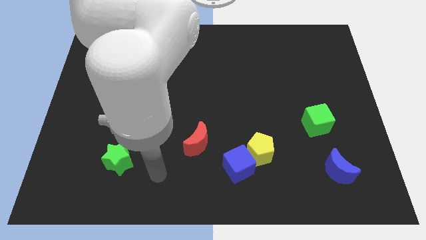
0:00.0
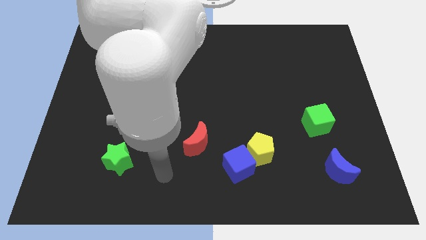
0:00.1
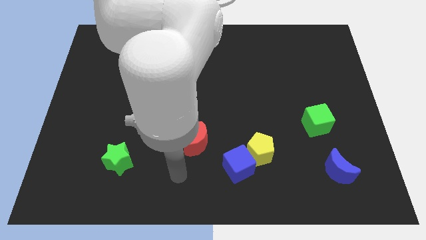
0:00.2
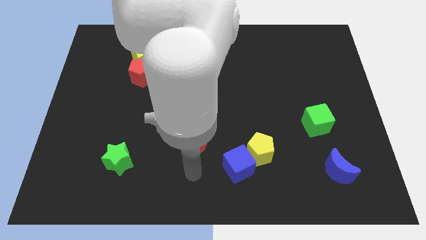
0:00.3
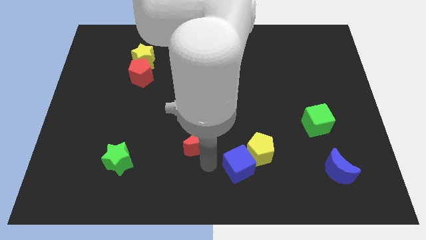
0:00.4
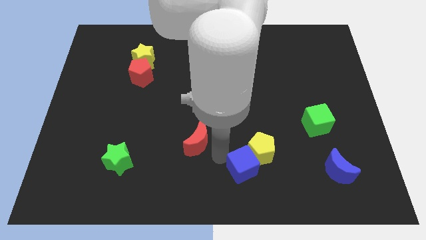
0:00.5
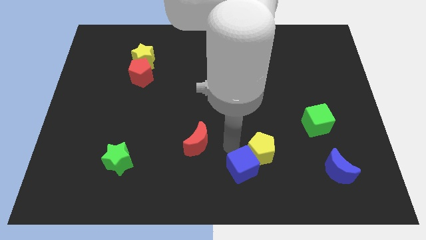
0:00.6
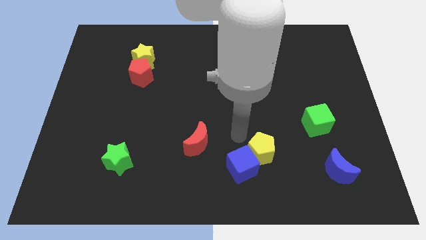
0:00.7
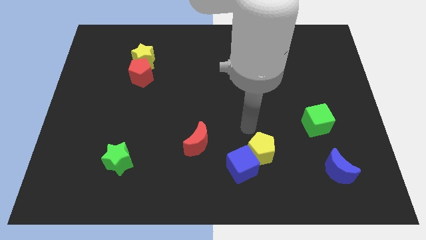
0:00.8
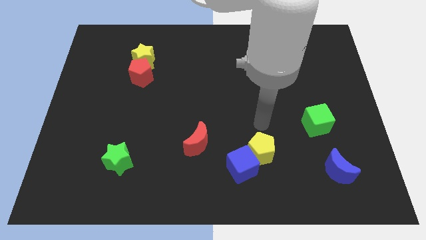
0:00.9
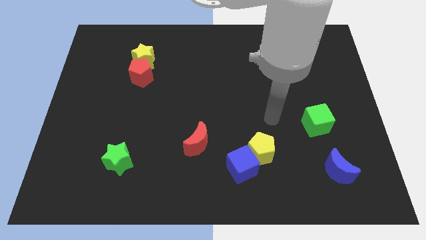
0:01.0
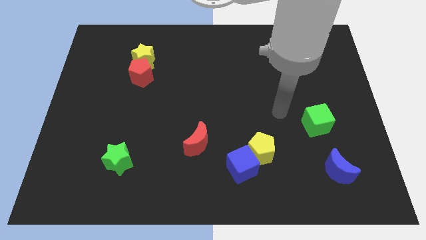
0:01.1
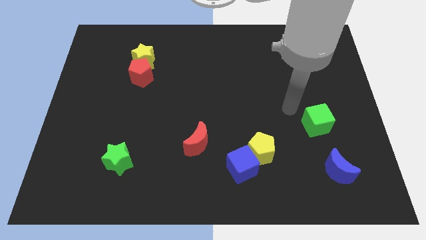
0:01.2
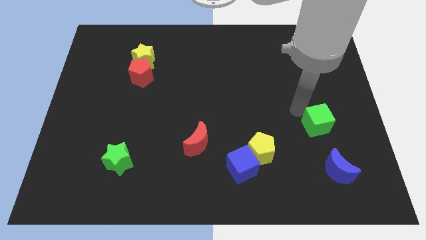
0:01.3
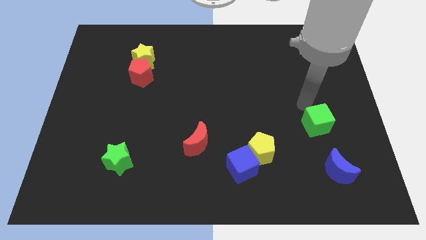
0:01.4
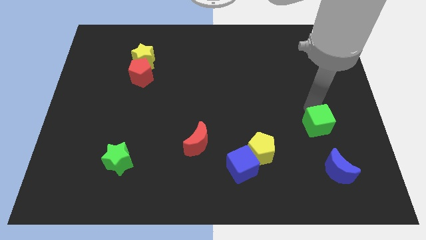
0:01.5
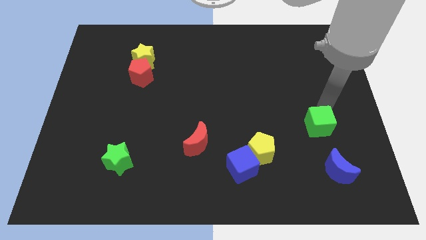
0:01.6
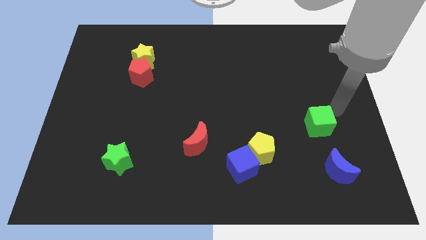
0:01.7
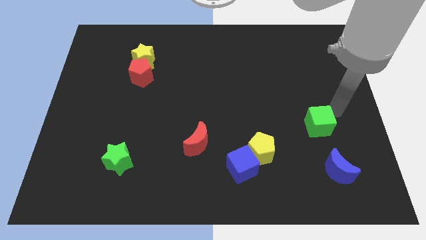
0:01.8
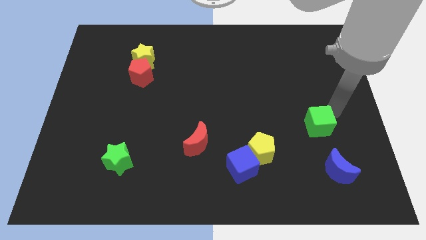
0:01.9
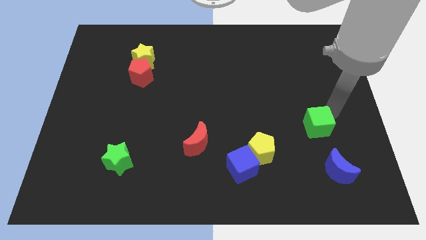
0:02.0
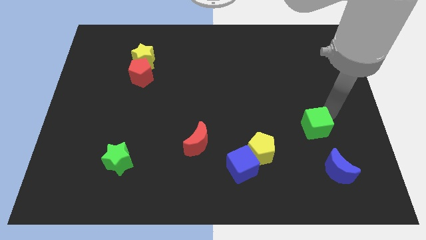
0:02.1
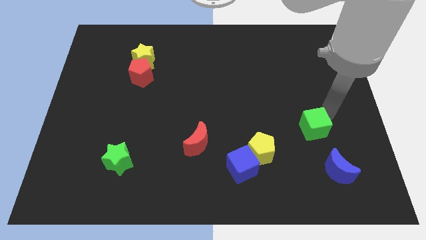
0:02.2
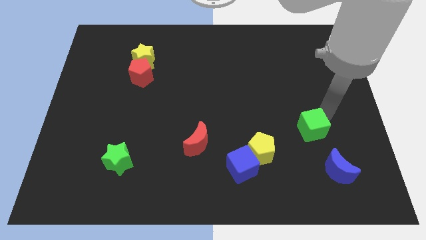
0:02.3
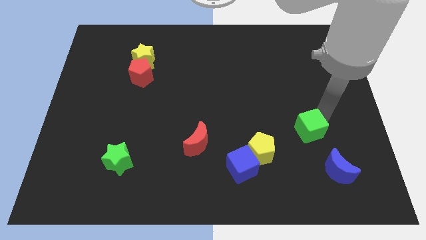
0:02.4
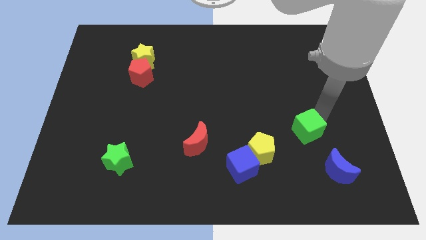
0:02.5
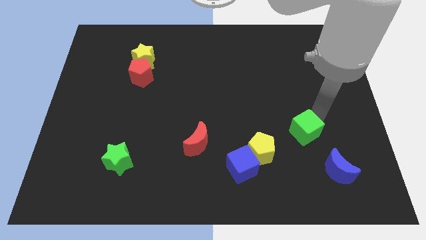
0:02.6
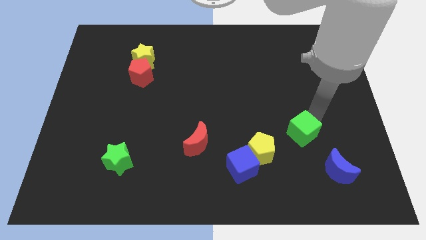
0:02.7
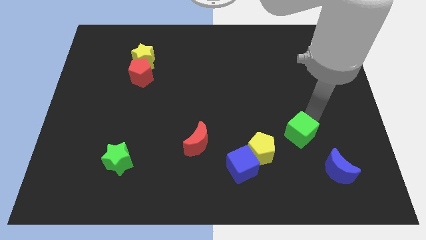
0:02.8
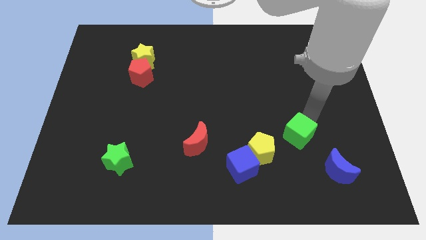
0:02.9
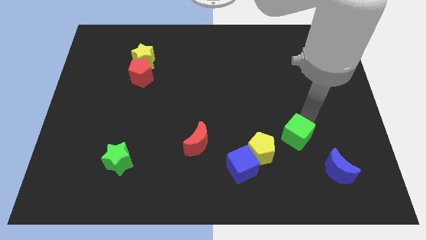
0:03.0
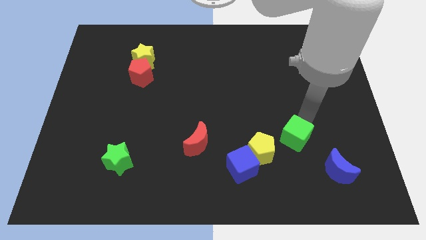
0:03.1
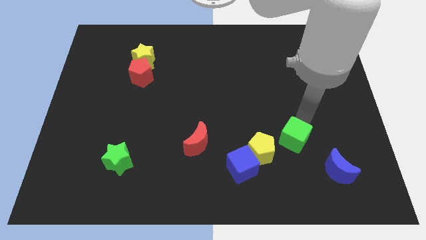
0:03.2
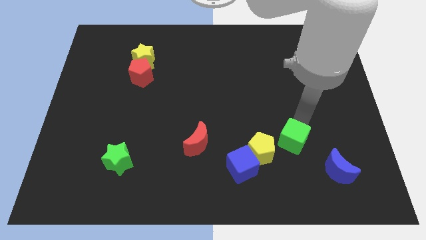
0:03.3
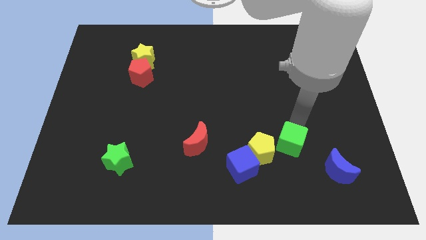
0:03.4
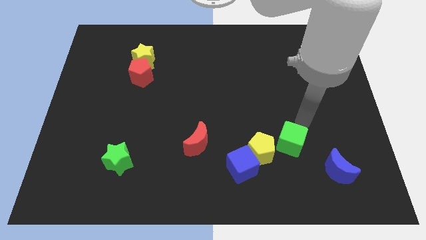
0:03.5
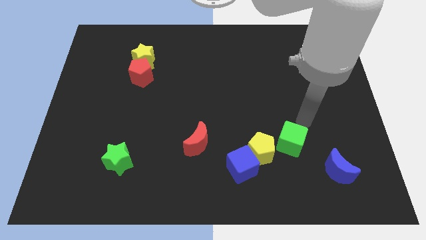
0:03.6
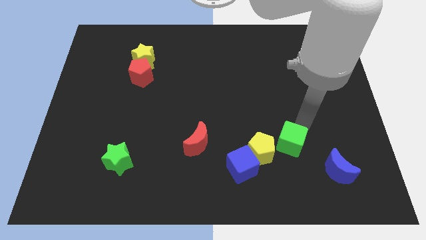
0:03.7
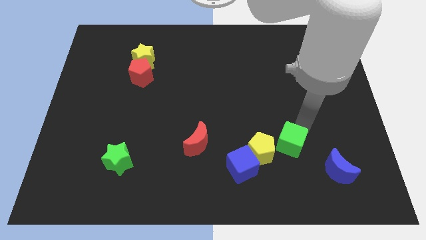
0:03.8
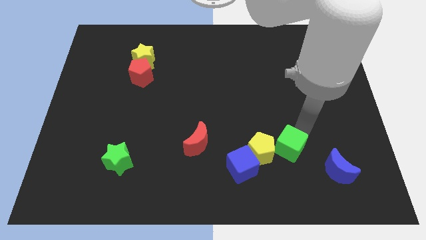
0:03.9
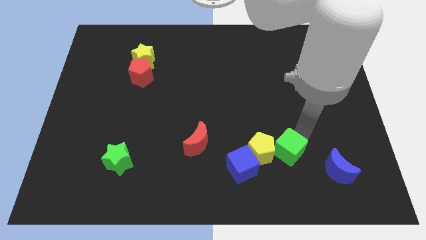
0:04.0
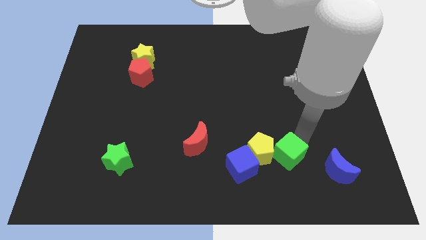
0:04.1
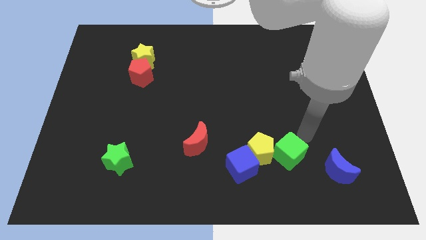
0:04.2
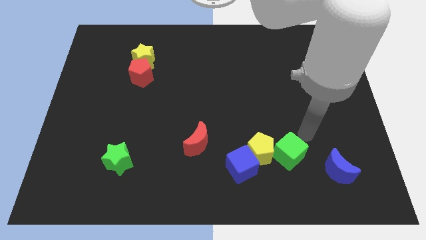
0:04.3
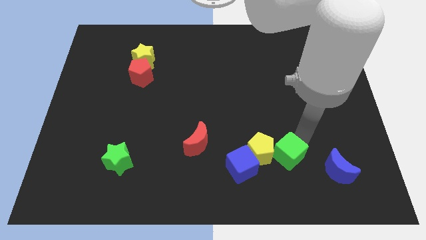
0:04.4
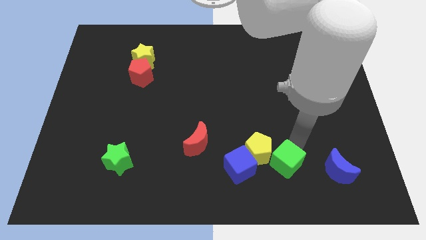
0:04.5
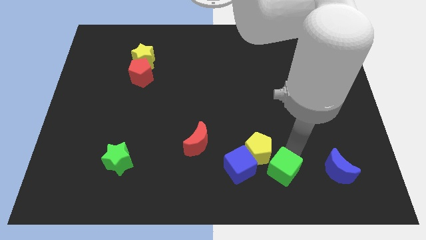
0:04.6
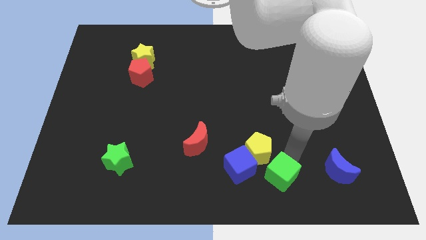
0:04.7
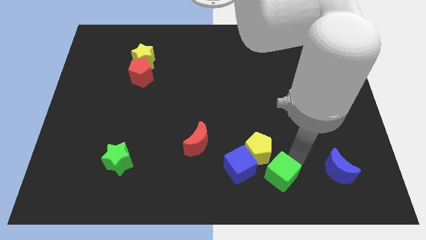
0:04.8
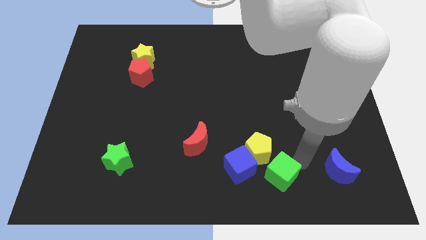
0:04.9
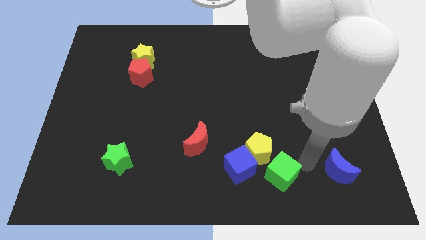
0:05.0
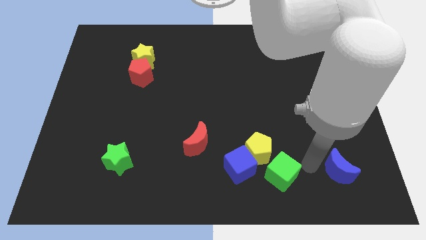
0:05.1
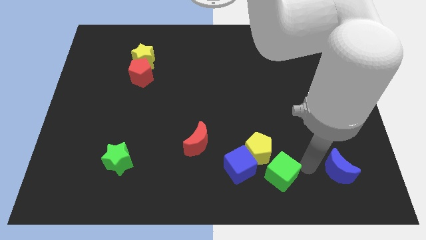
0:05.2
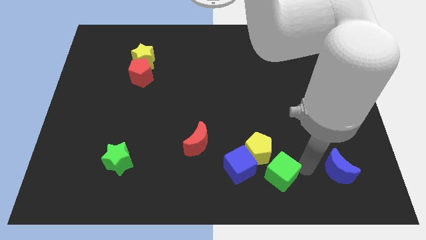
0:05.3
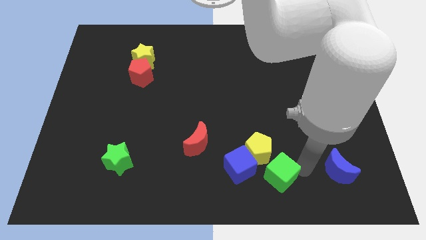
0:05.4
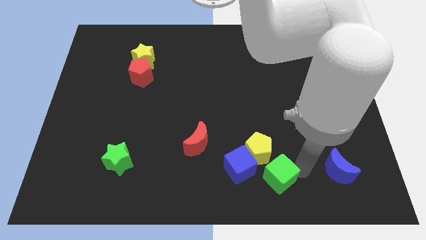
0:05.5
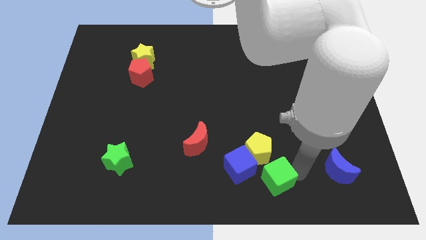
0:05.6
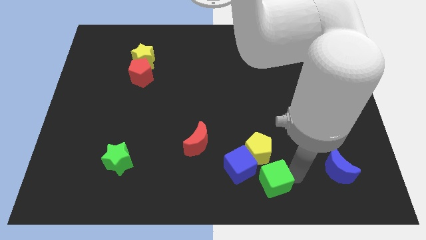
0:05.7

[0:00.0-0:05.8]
put the green cube to the bottom side

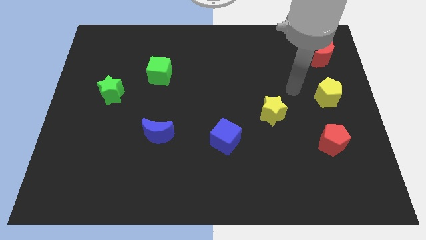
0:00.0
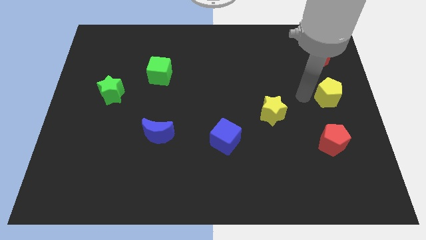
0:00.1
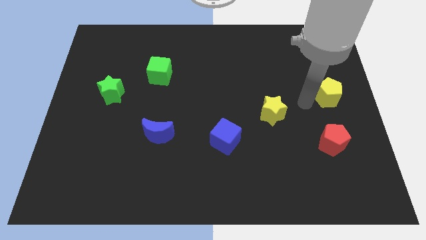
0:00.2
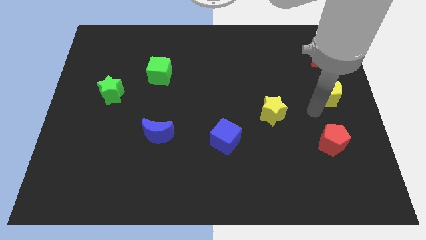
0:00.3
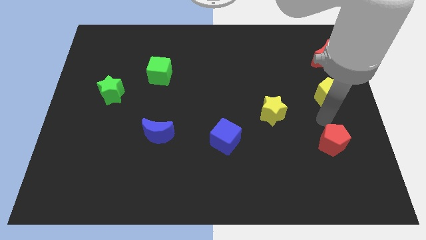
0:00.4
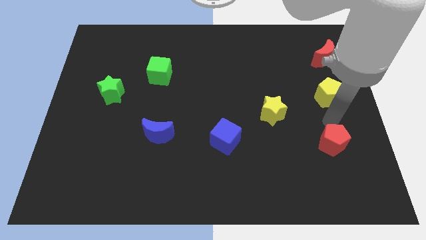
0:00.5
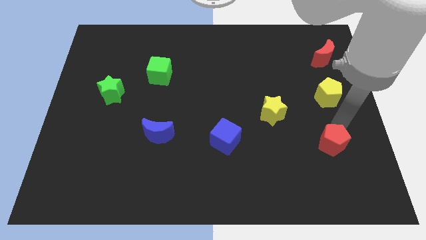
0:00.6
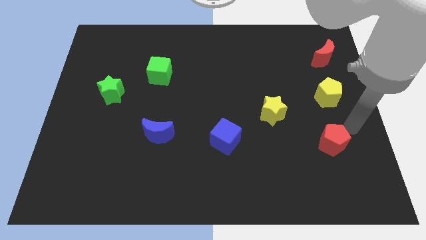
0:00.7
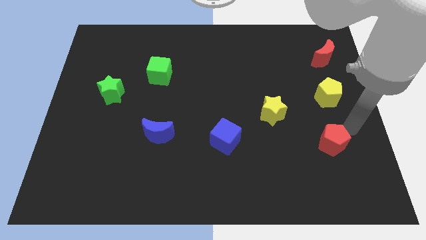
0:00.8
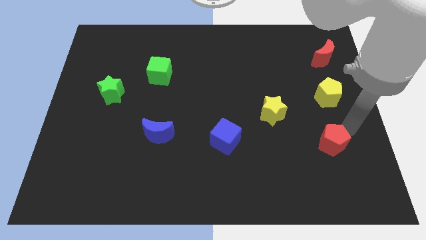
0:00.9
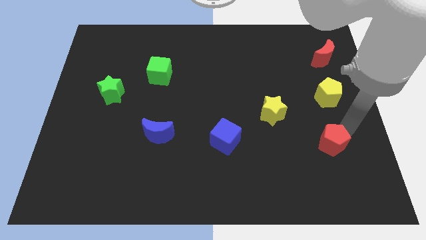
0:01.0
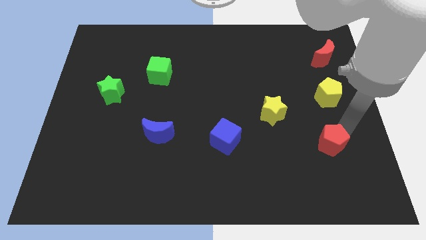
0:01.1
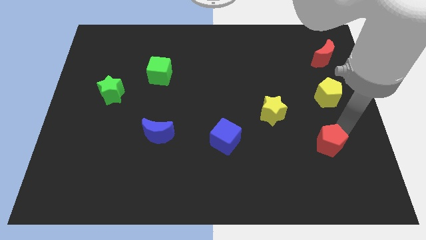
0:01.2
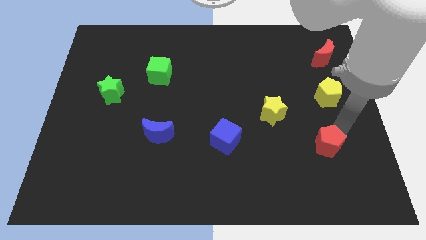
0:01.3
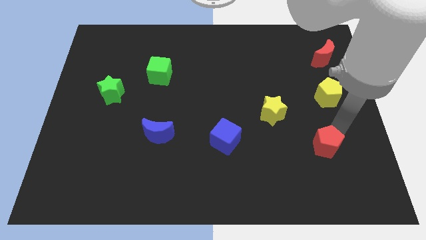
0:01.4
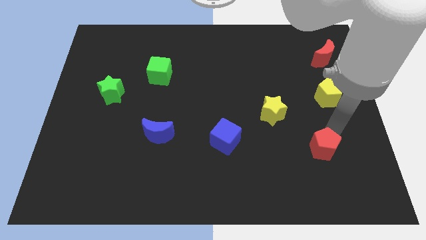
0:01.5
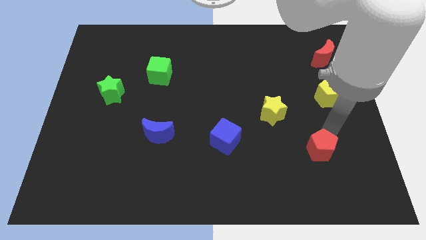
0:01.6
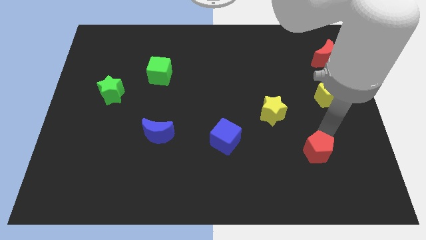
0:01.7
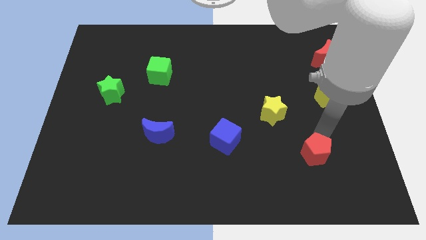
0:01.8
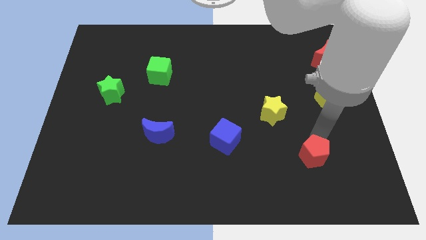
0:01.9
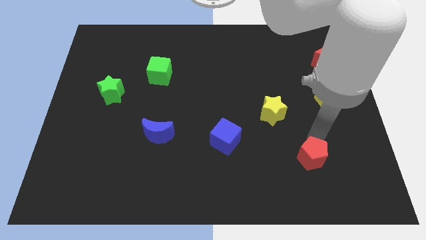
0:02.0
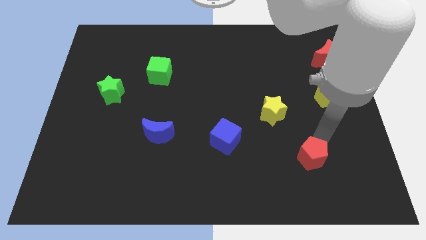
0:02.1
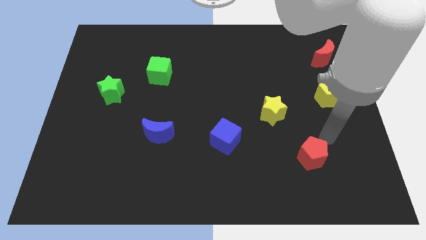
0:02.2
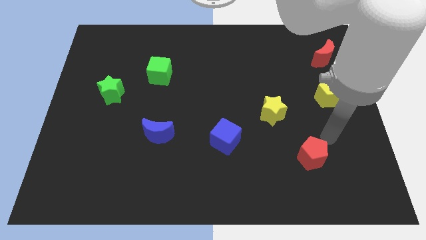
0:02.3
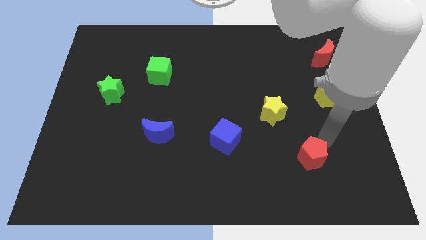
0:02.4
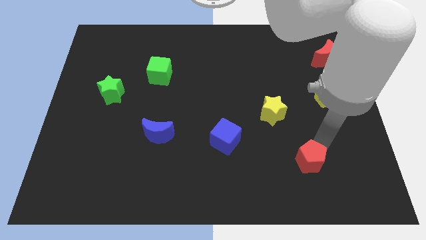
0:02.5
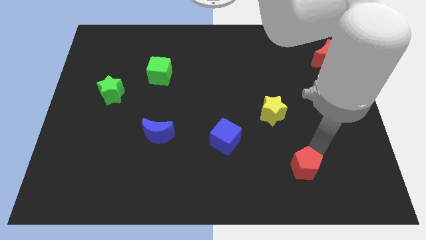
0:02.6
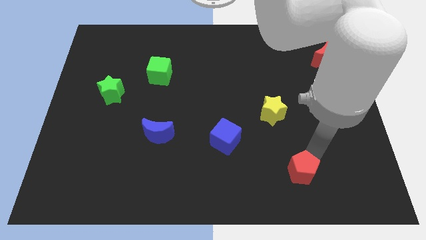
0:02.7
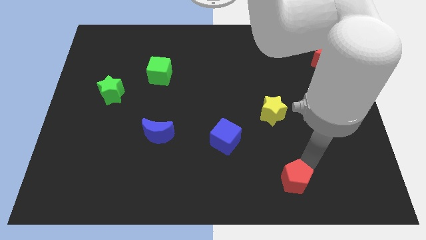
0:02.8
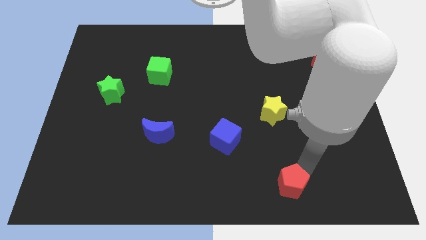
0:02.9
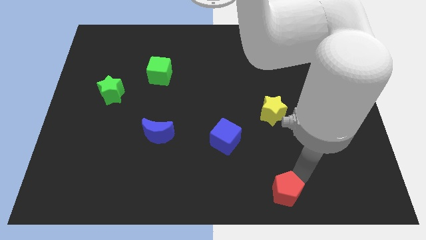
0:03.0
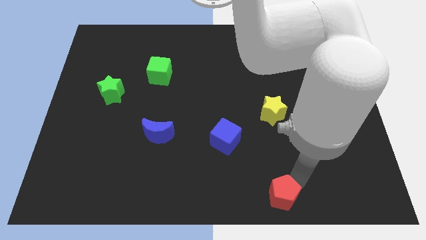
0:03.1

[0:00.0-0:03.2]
slide the red pentagon to the bottom side
